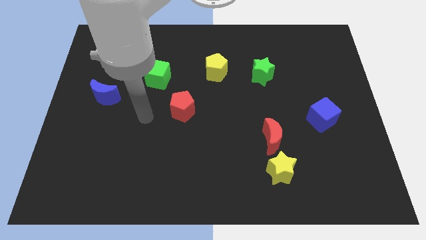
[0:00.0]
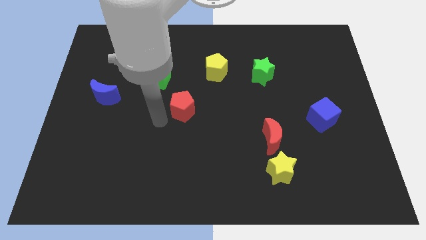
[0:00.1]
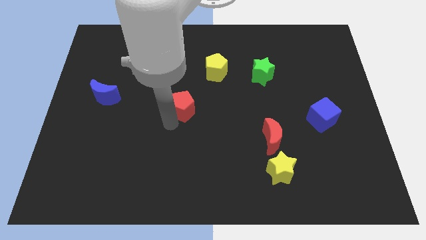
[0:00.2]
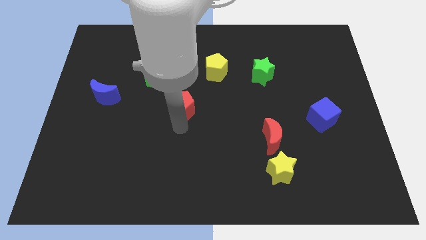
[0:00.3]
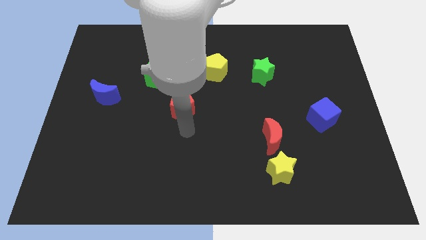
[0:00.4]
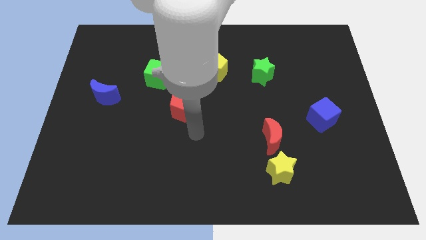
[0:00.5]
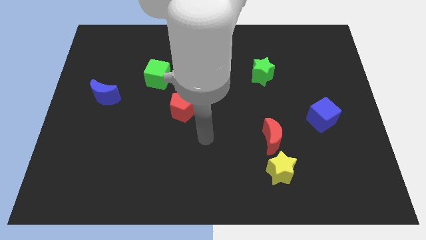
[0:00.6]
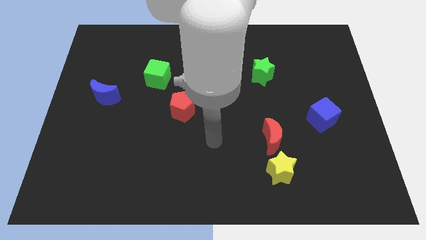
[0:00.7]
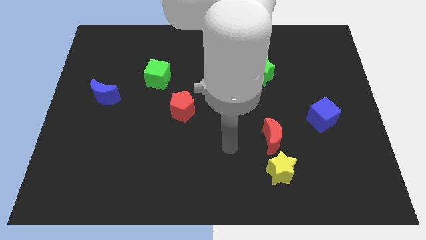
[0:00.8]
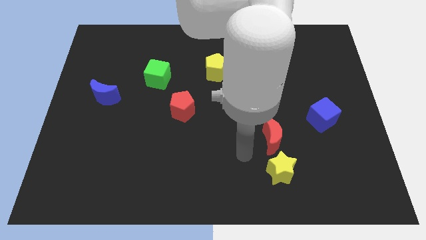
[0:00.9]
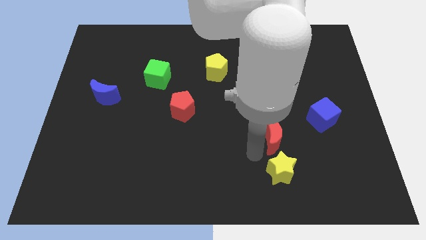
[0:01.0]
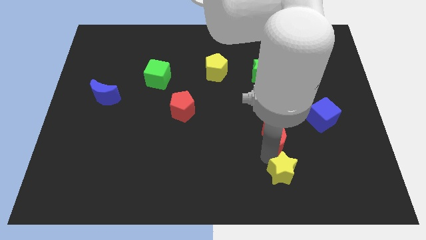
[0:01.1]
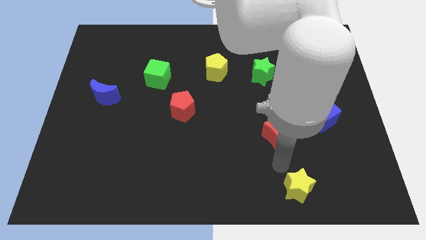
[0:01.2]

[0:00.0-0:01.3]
pull the red moon apart from the yellow star

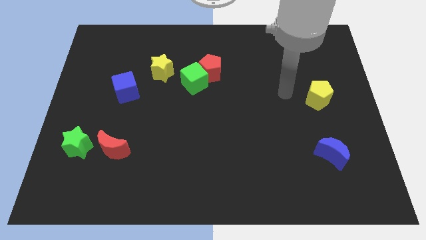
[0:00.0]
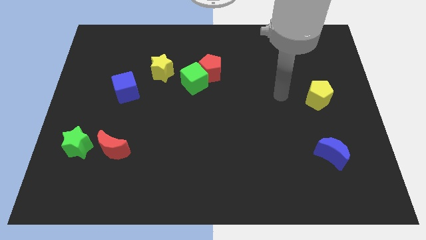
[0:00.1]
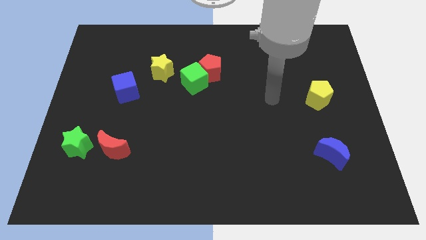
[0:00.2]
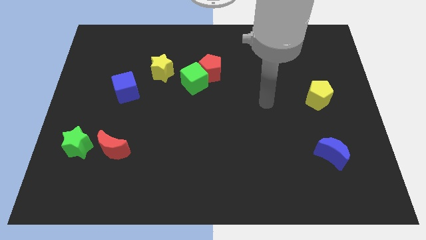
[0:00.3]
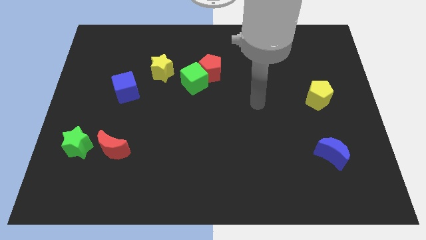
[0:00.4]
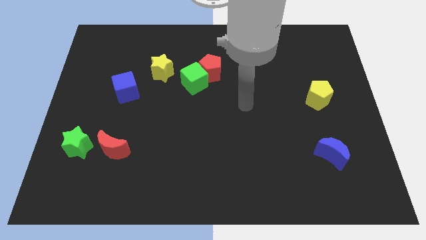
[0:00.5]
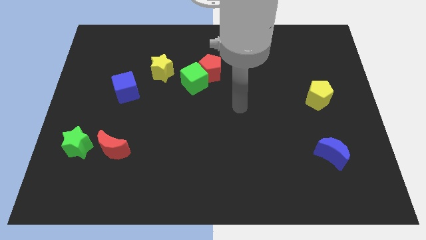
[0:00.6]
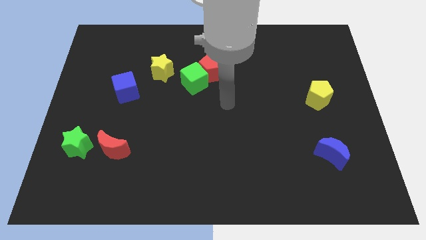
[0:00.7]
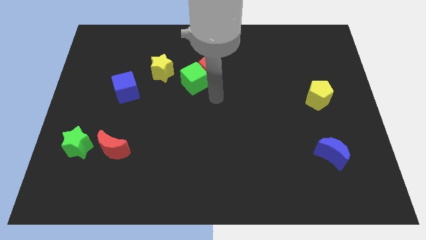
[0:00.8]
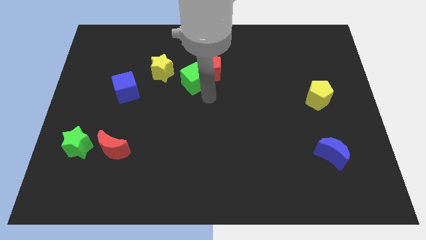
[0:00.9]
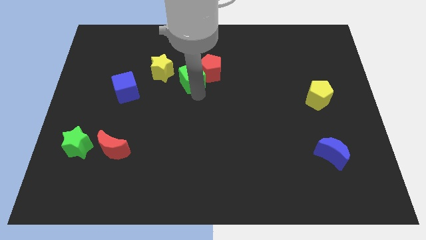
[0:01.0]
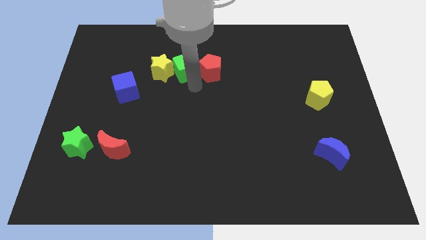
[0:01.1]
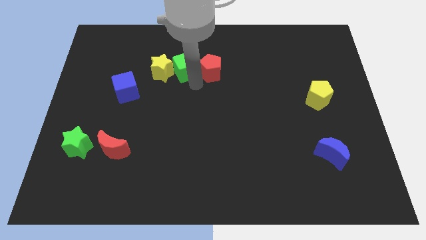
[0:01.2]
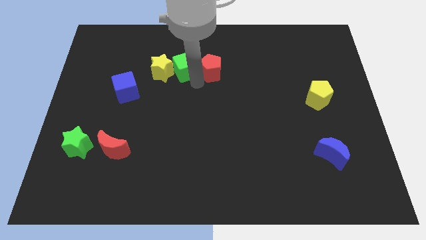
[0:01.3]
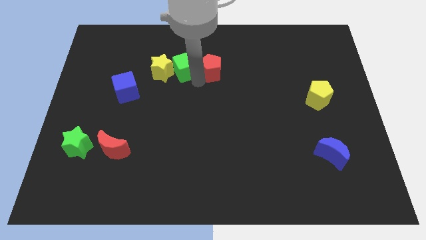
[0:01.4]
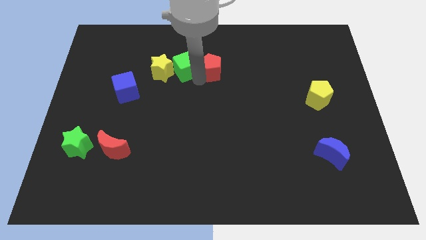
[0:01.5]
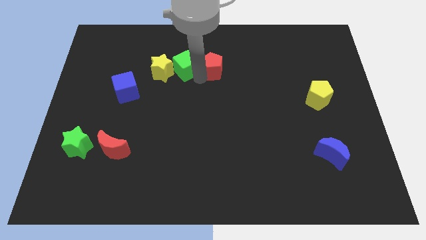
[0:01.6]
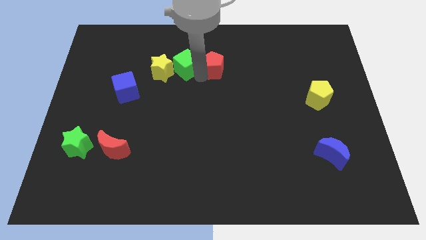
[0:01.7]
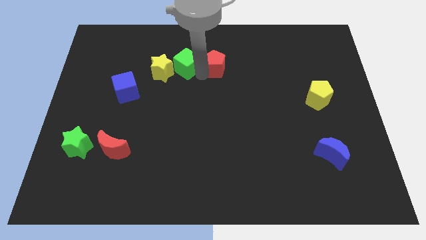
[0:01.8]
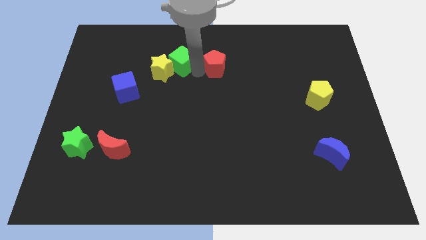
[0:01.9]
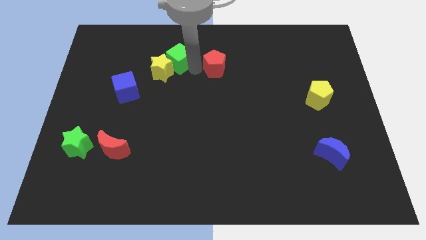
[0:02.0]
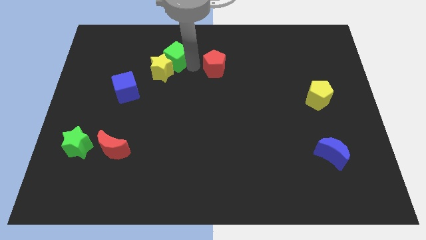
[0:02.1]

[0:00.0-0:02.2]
move the red pentagon away from the green cube

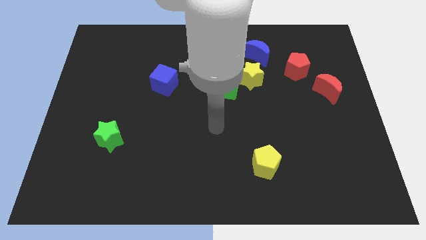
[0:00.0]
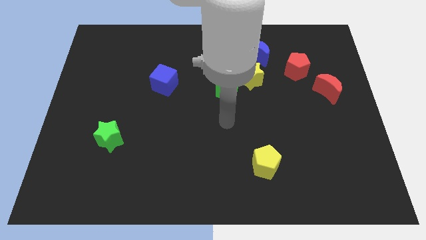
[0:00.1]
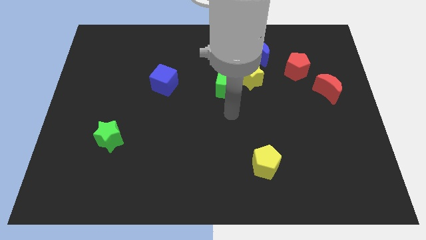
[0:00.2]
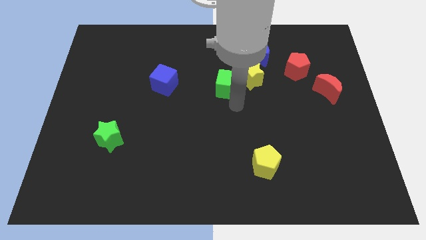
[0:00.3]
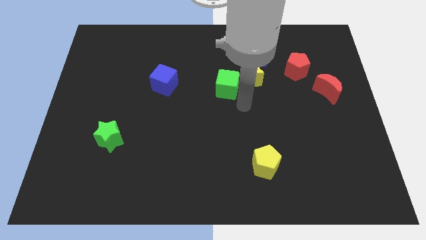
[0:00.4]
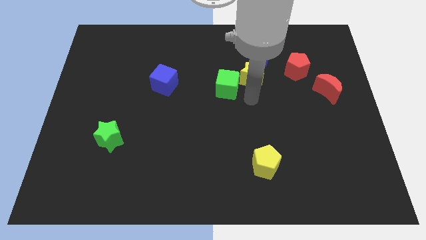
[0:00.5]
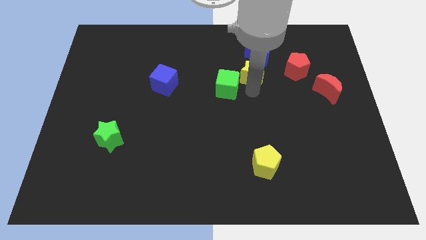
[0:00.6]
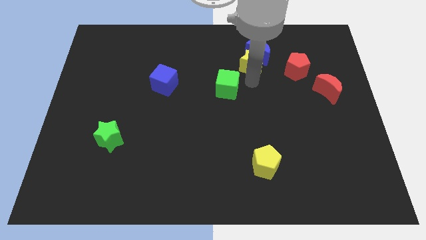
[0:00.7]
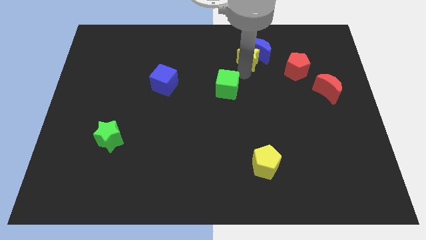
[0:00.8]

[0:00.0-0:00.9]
move the green cube away from the yellow star

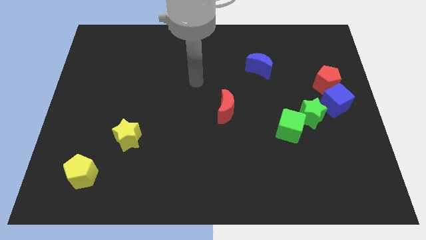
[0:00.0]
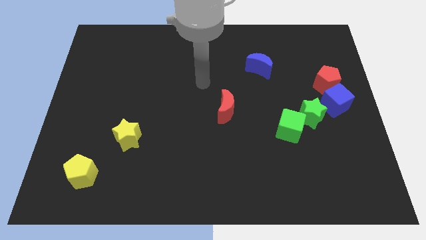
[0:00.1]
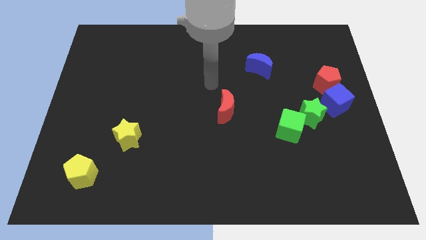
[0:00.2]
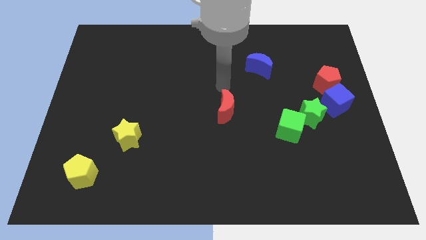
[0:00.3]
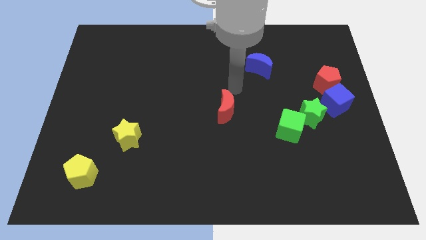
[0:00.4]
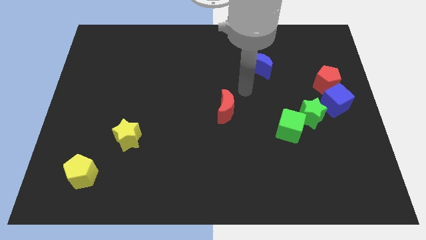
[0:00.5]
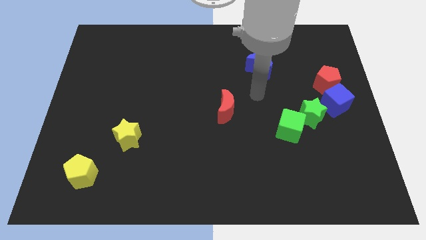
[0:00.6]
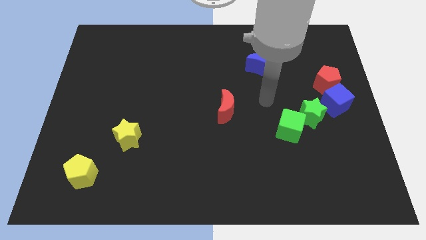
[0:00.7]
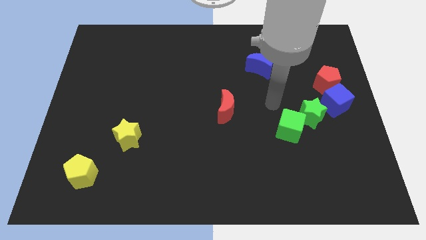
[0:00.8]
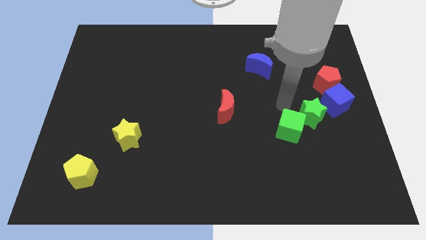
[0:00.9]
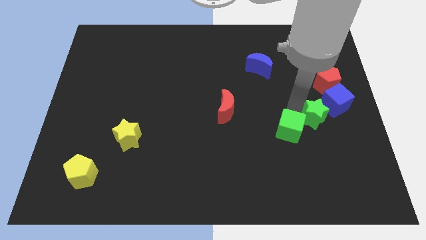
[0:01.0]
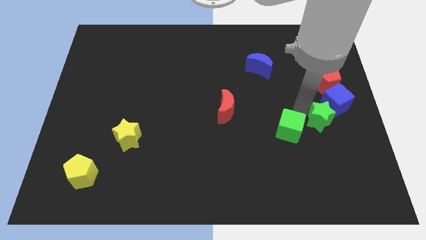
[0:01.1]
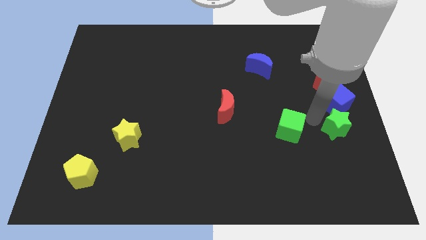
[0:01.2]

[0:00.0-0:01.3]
separate the green cube from the green star

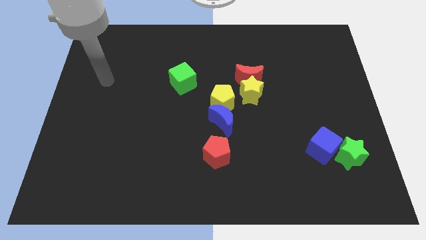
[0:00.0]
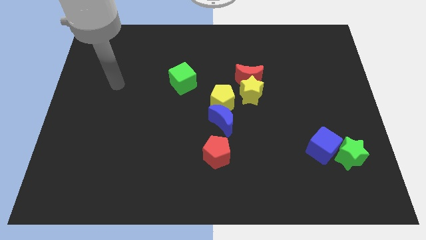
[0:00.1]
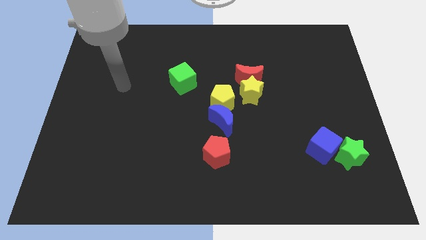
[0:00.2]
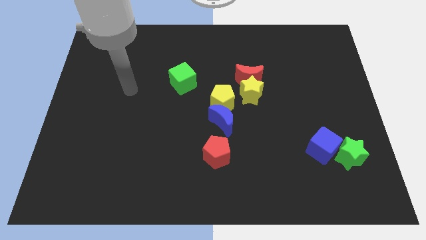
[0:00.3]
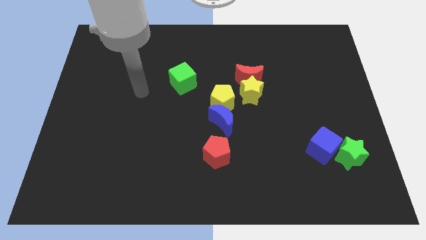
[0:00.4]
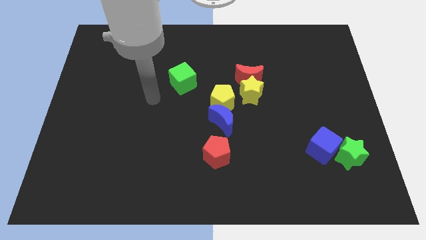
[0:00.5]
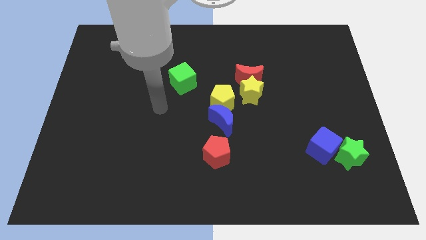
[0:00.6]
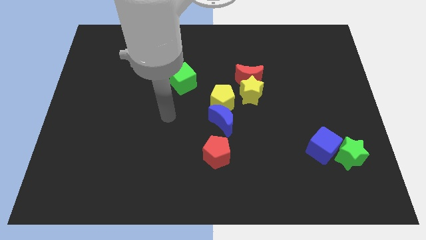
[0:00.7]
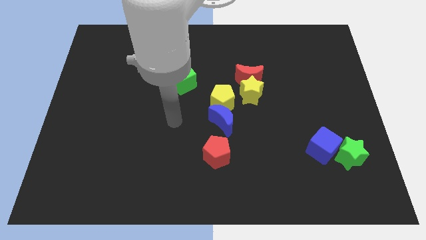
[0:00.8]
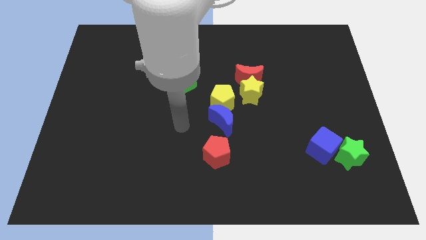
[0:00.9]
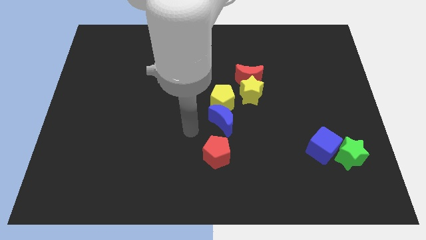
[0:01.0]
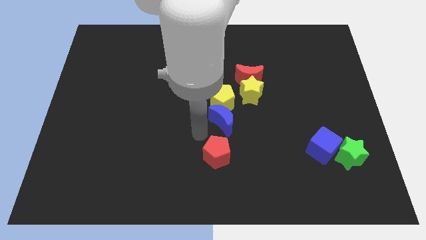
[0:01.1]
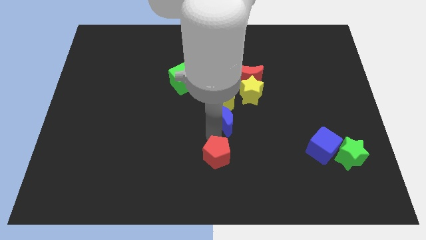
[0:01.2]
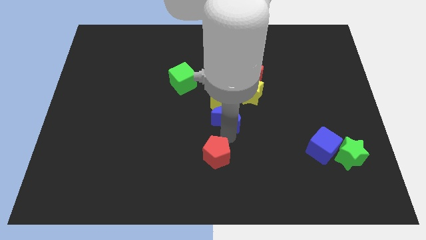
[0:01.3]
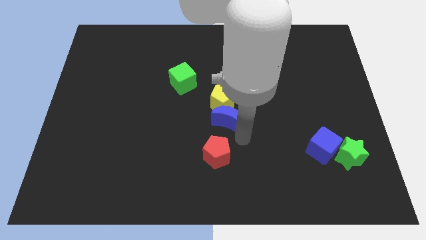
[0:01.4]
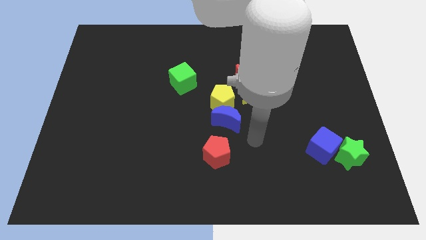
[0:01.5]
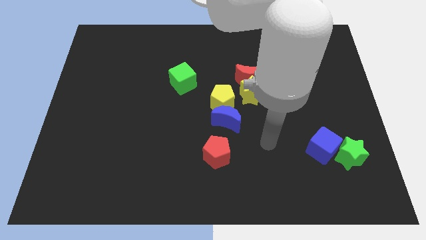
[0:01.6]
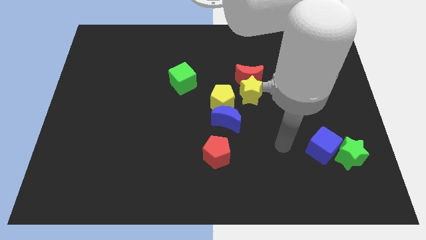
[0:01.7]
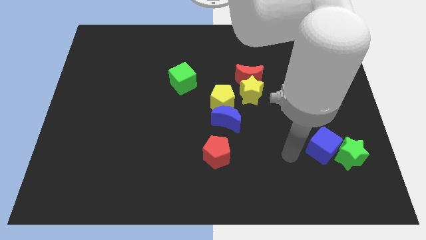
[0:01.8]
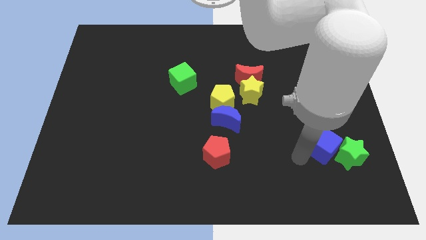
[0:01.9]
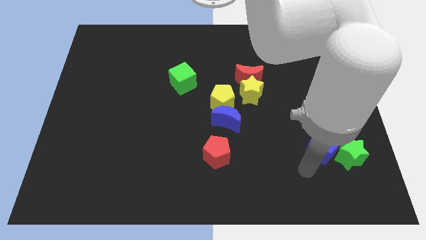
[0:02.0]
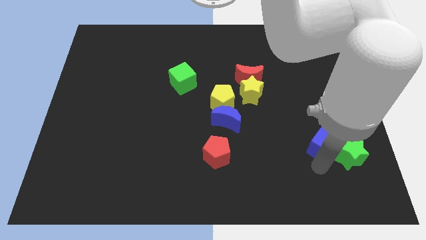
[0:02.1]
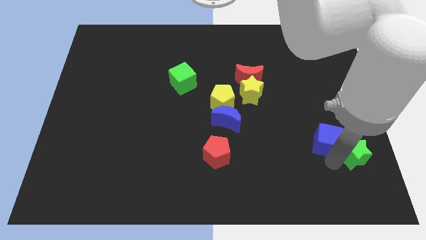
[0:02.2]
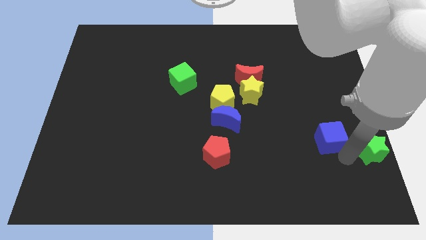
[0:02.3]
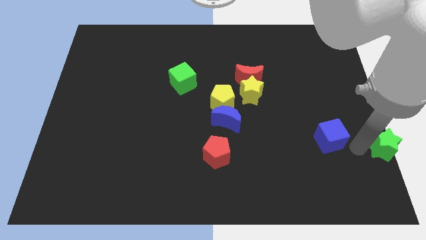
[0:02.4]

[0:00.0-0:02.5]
move the blue cube away from the green star

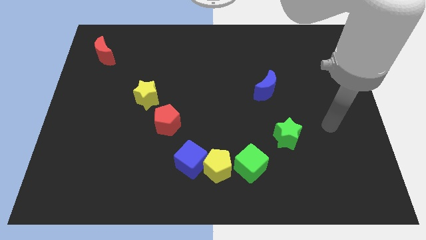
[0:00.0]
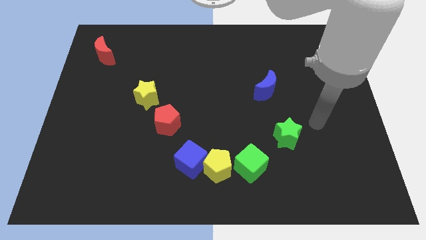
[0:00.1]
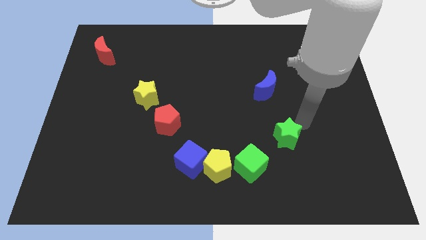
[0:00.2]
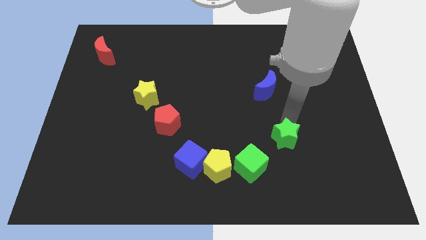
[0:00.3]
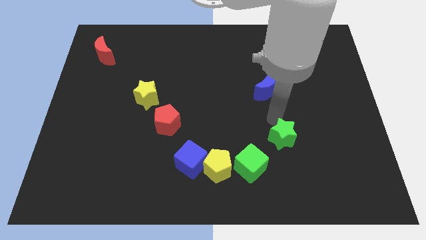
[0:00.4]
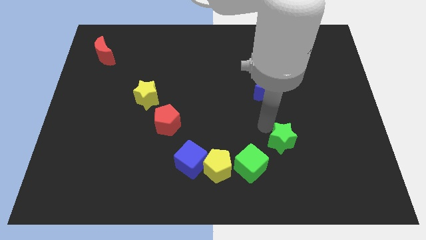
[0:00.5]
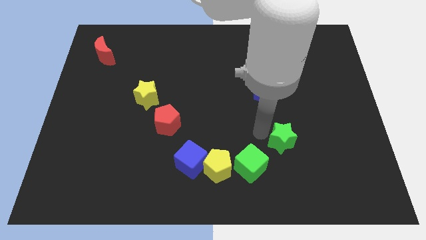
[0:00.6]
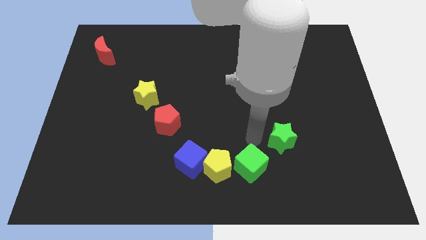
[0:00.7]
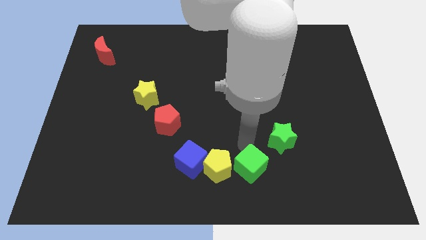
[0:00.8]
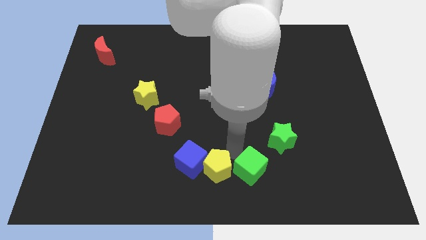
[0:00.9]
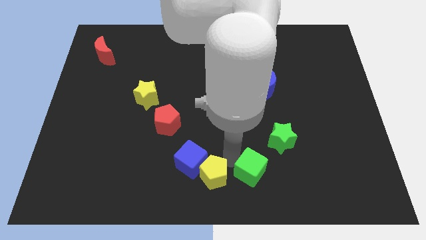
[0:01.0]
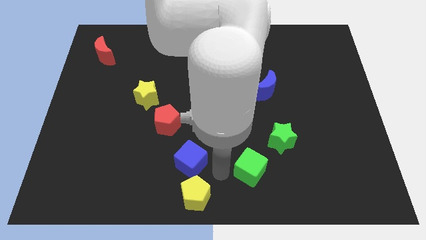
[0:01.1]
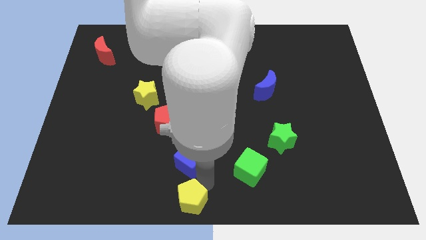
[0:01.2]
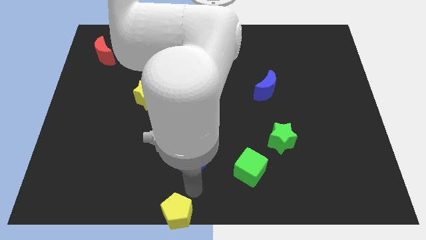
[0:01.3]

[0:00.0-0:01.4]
move the blue cube away from the yellow pentagon
